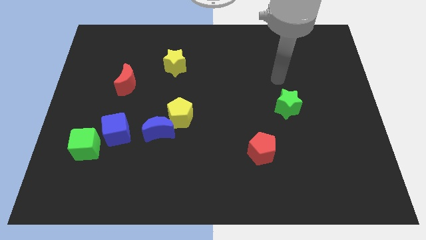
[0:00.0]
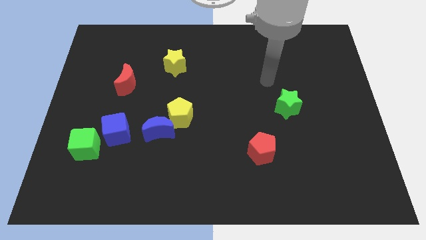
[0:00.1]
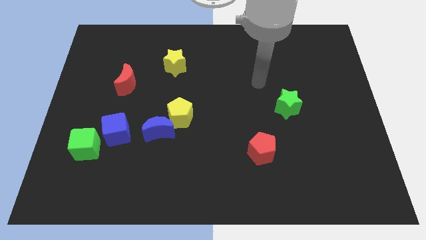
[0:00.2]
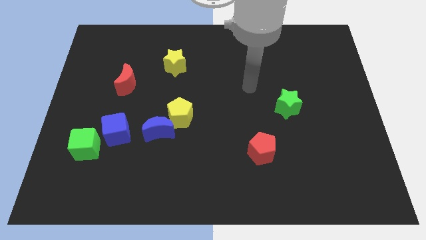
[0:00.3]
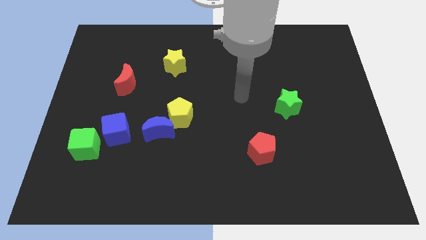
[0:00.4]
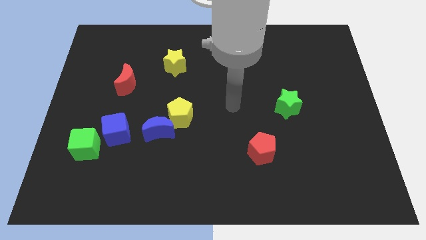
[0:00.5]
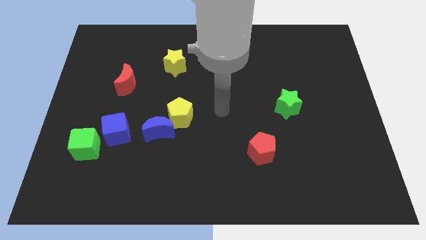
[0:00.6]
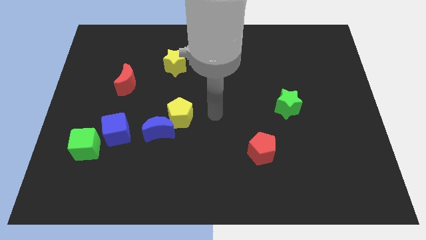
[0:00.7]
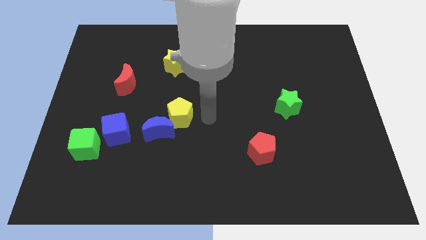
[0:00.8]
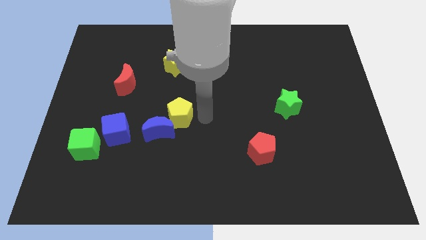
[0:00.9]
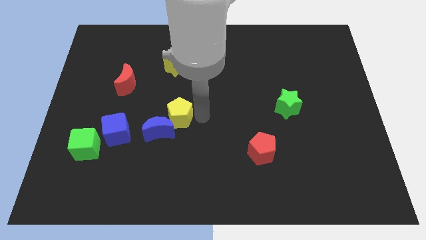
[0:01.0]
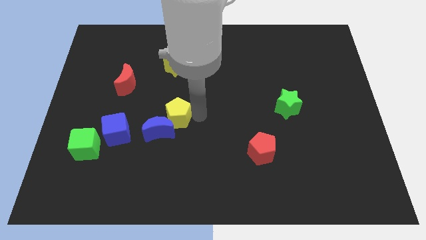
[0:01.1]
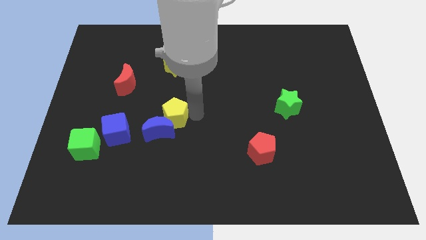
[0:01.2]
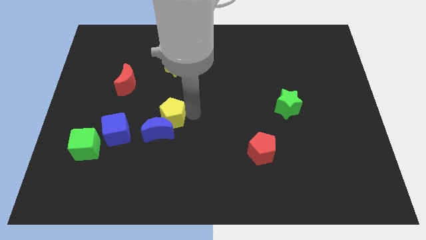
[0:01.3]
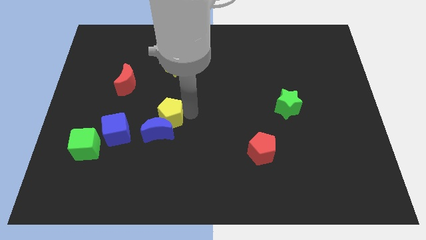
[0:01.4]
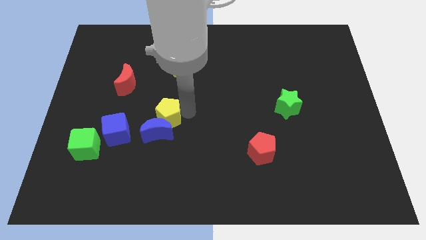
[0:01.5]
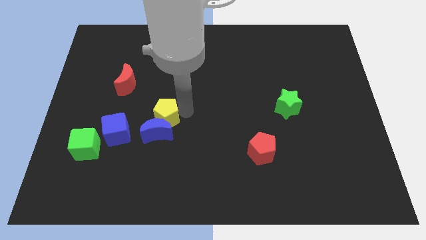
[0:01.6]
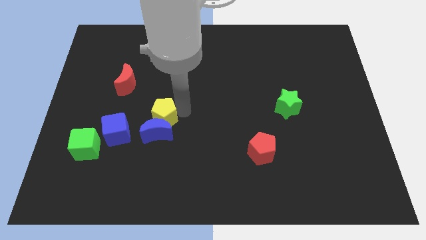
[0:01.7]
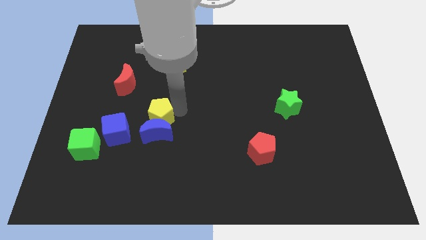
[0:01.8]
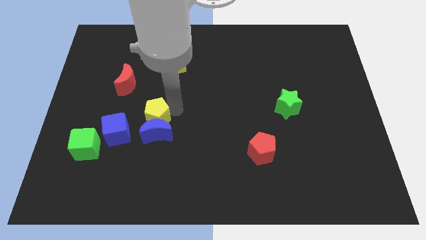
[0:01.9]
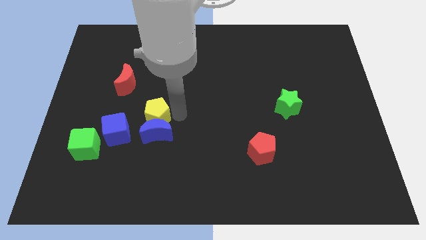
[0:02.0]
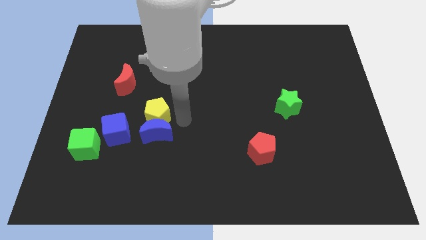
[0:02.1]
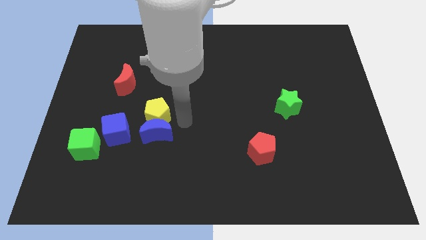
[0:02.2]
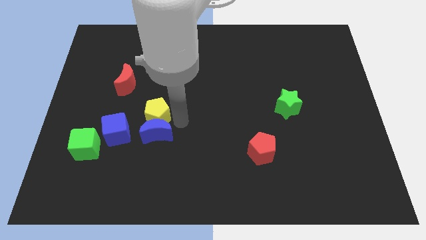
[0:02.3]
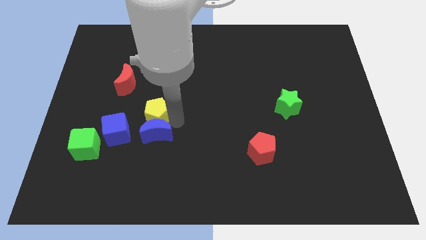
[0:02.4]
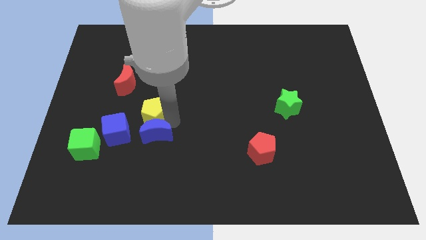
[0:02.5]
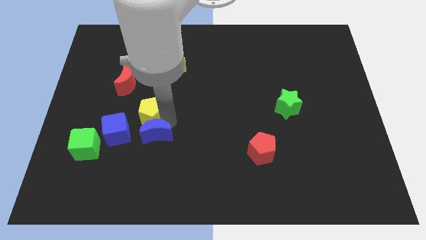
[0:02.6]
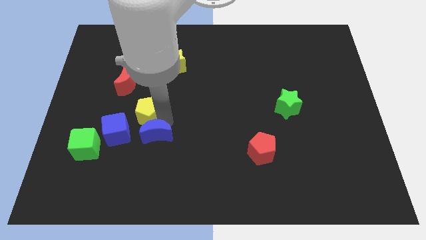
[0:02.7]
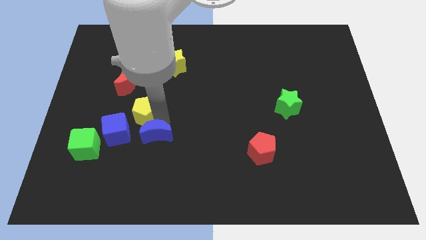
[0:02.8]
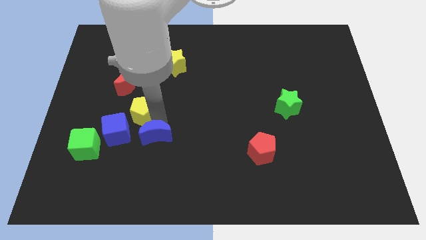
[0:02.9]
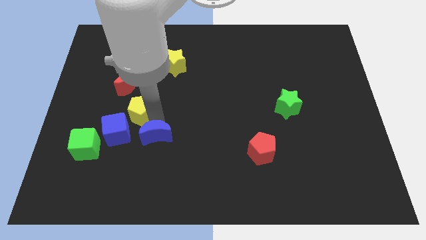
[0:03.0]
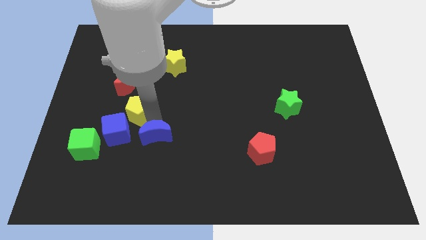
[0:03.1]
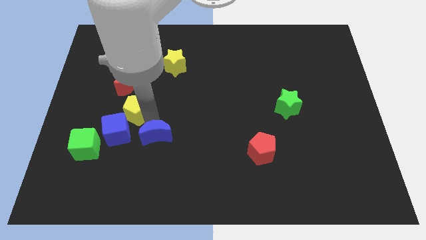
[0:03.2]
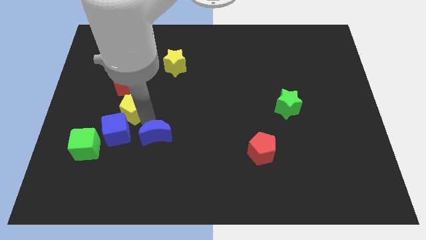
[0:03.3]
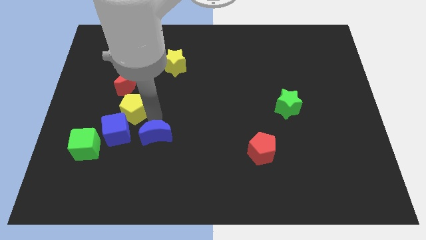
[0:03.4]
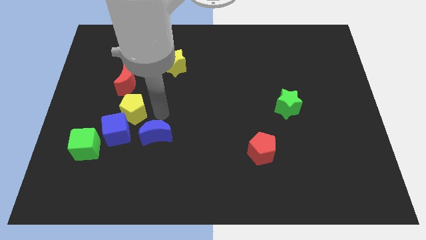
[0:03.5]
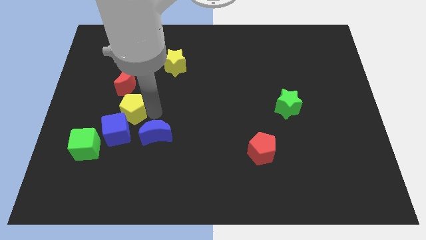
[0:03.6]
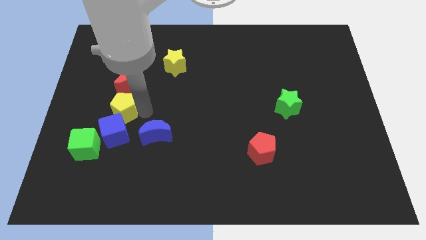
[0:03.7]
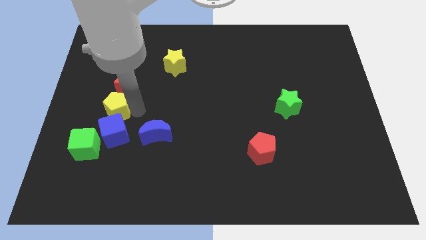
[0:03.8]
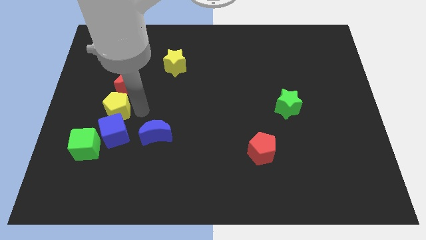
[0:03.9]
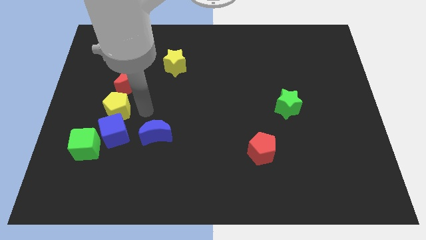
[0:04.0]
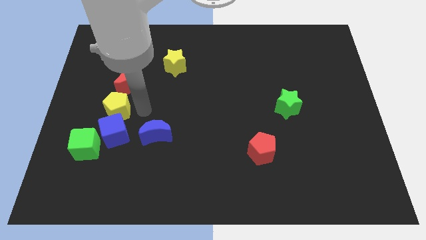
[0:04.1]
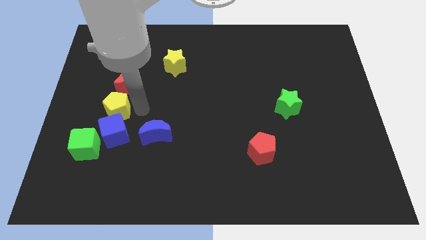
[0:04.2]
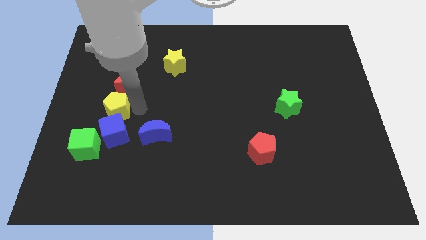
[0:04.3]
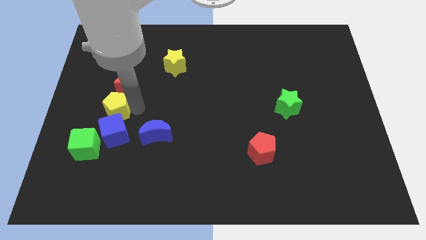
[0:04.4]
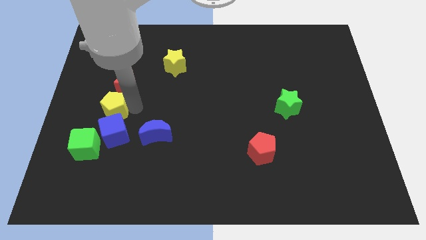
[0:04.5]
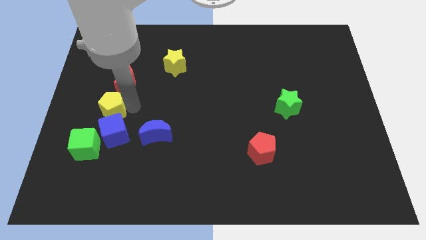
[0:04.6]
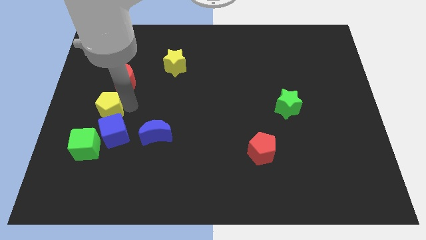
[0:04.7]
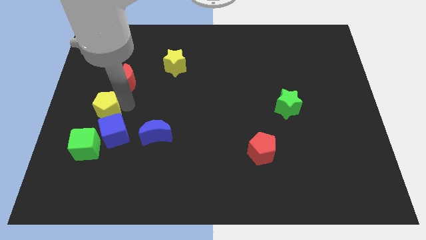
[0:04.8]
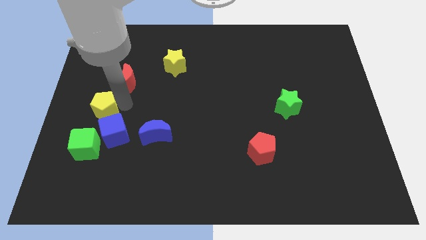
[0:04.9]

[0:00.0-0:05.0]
move the yellow pentagon to the left side of the board

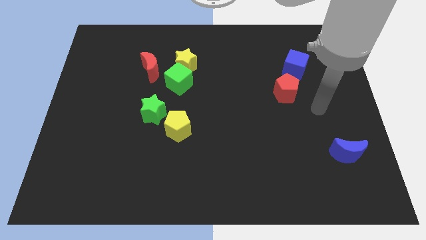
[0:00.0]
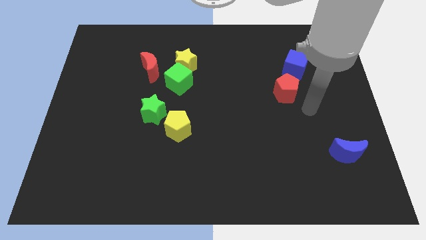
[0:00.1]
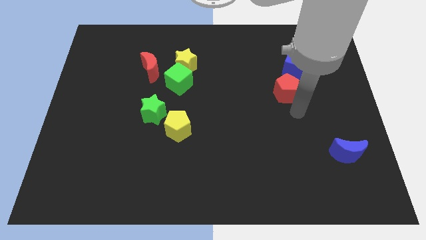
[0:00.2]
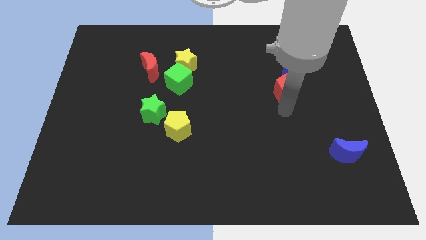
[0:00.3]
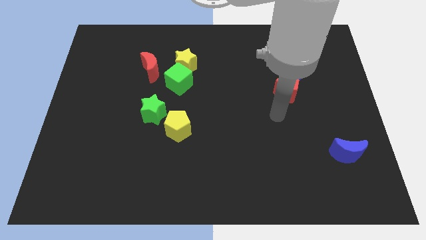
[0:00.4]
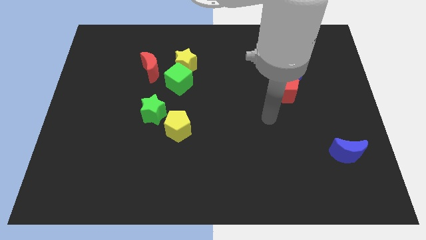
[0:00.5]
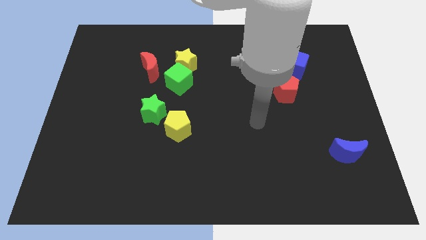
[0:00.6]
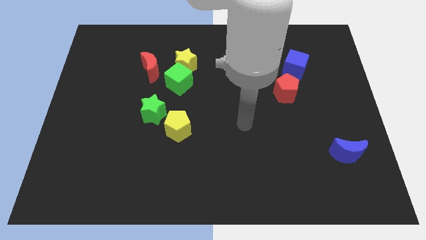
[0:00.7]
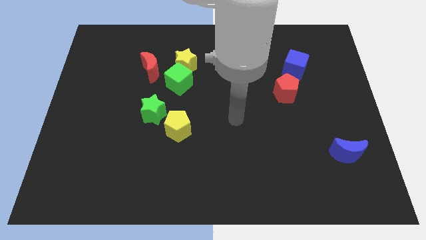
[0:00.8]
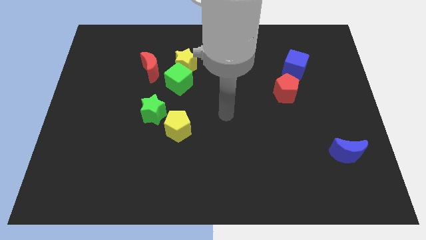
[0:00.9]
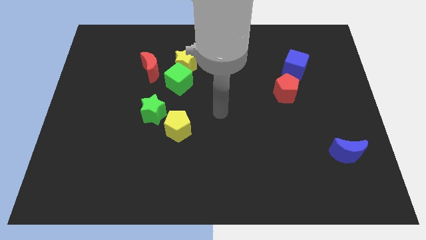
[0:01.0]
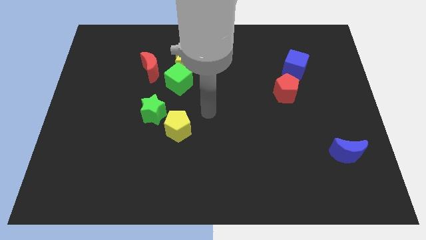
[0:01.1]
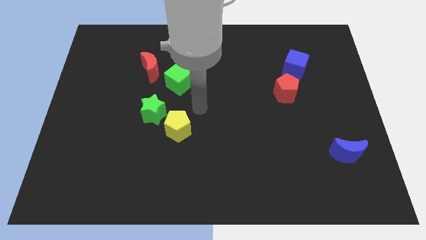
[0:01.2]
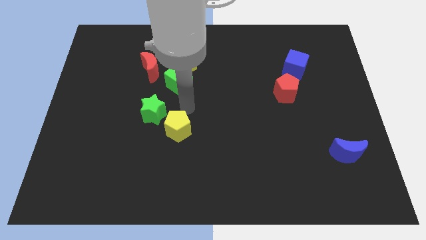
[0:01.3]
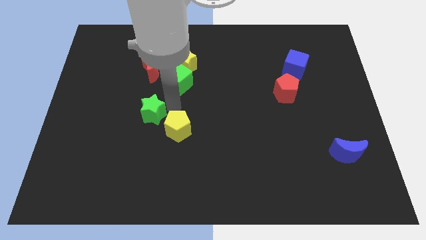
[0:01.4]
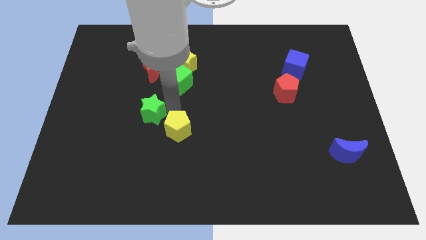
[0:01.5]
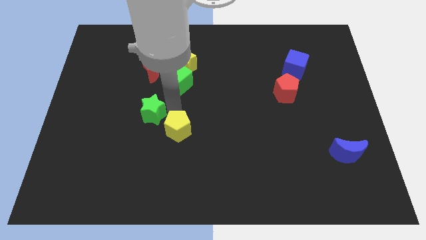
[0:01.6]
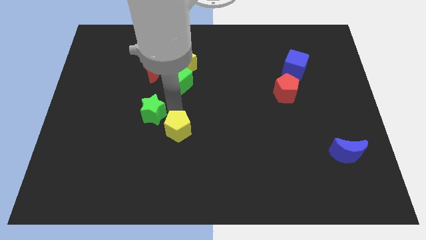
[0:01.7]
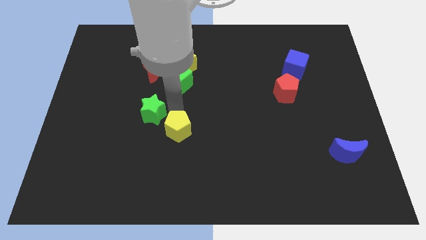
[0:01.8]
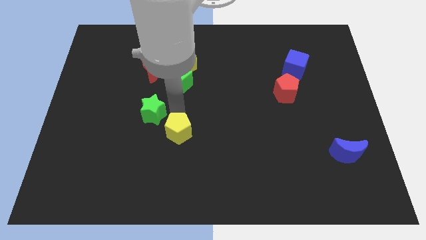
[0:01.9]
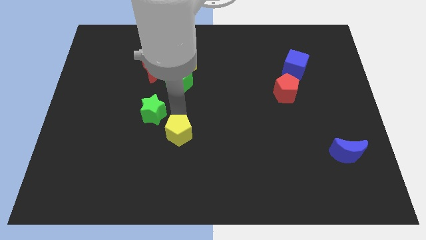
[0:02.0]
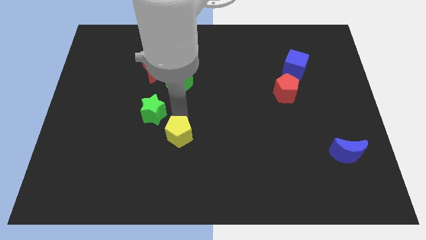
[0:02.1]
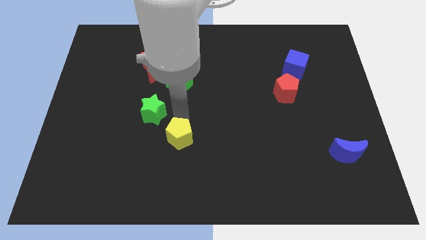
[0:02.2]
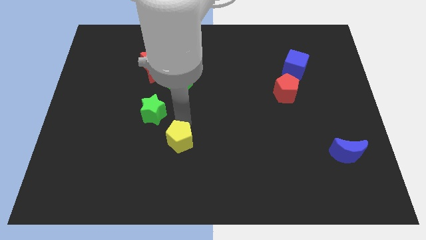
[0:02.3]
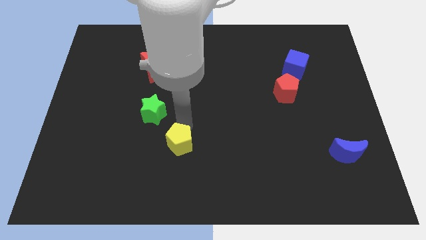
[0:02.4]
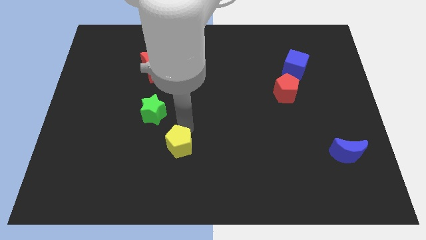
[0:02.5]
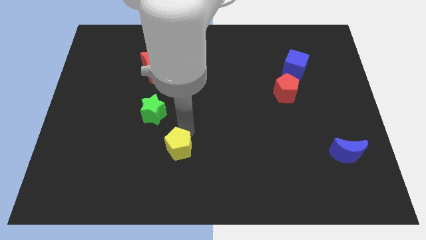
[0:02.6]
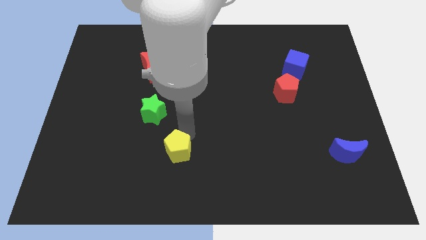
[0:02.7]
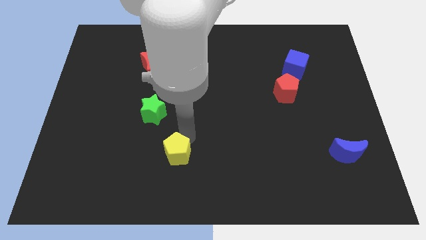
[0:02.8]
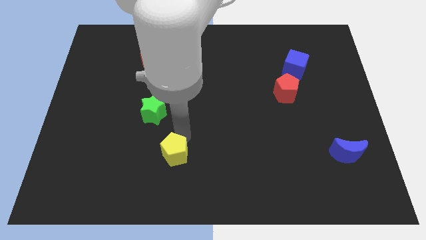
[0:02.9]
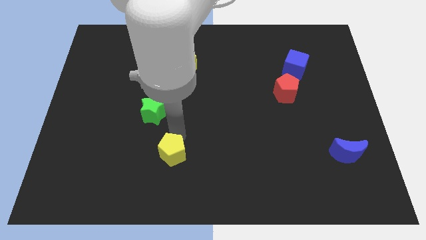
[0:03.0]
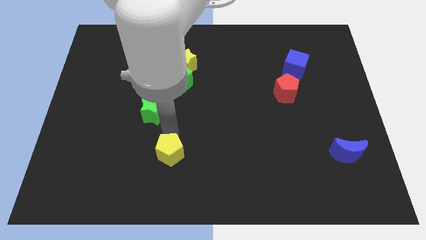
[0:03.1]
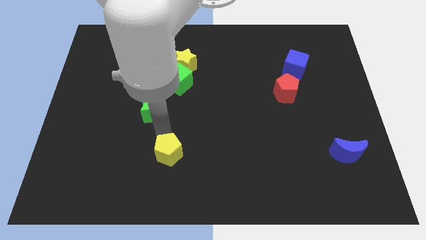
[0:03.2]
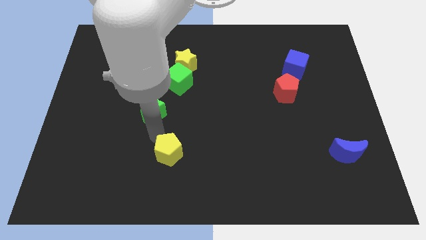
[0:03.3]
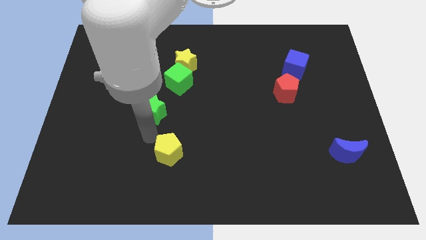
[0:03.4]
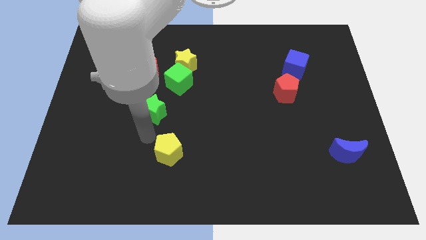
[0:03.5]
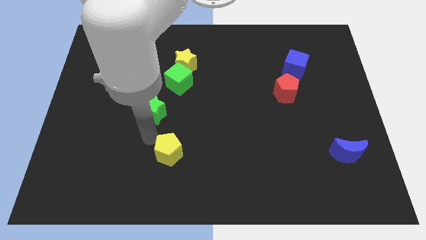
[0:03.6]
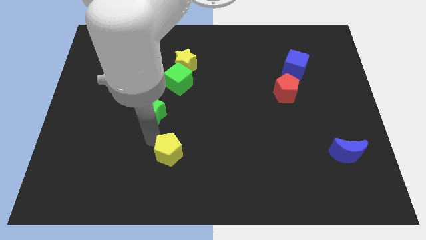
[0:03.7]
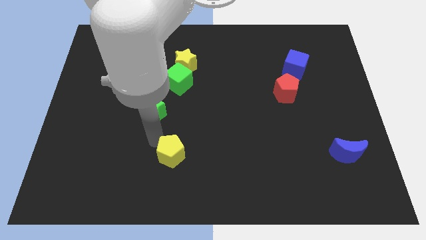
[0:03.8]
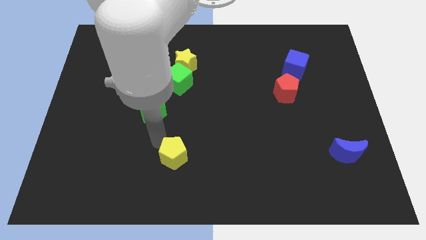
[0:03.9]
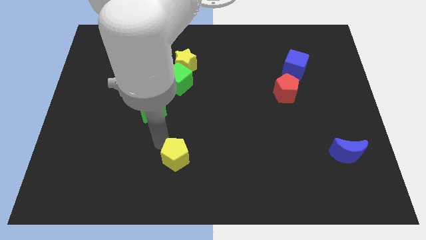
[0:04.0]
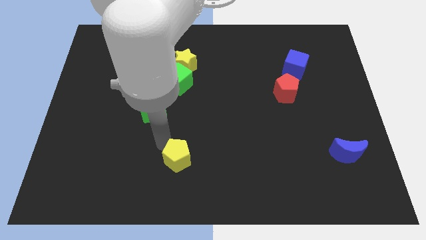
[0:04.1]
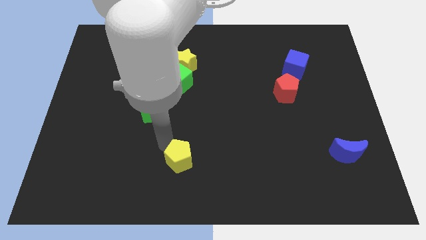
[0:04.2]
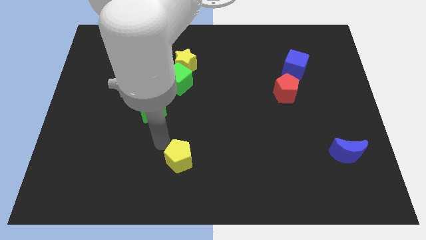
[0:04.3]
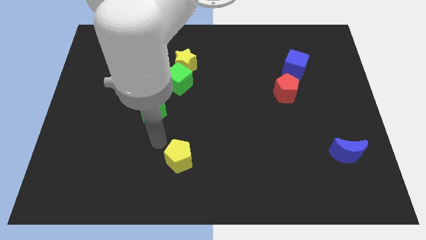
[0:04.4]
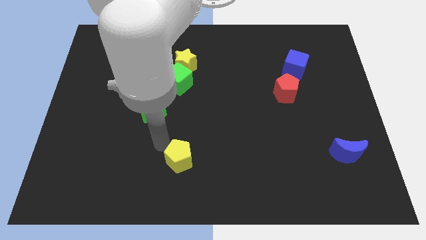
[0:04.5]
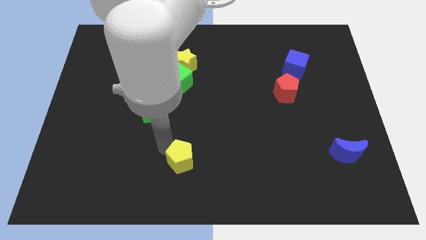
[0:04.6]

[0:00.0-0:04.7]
put the yellow pentagon to the bottom side
